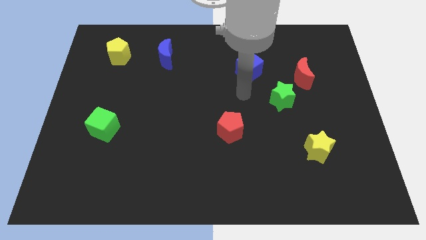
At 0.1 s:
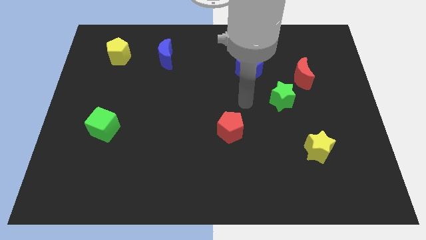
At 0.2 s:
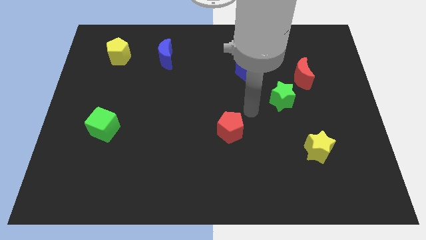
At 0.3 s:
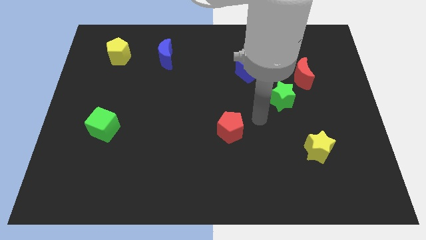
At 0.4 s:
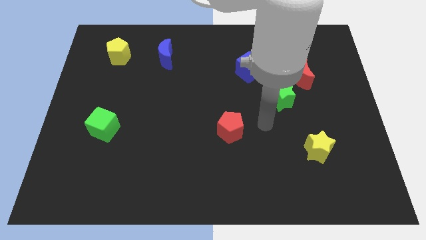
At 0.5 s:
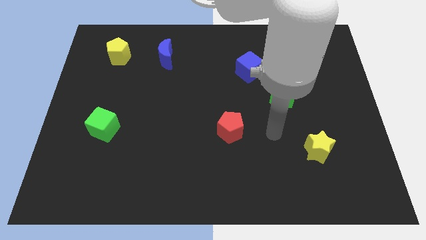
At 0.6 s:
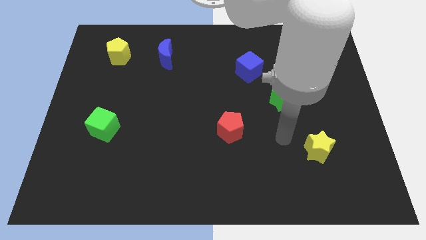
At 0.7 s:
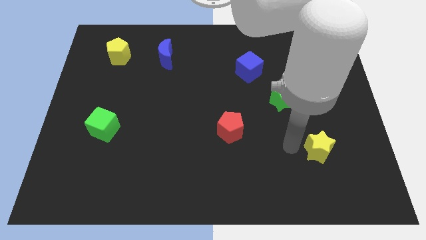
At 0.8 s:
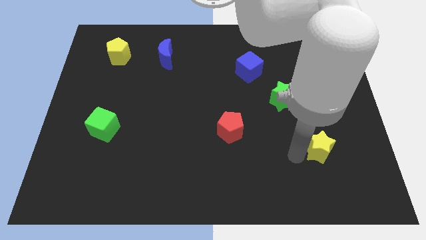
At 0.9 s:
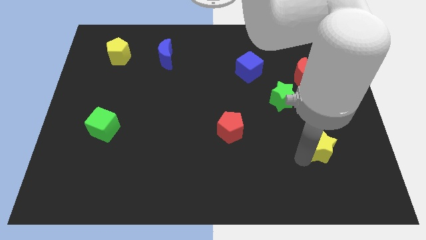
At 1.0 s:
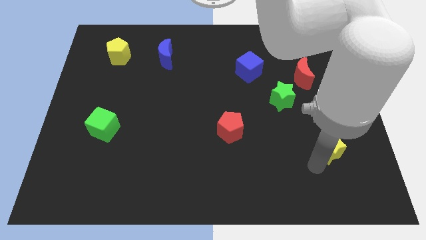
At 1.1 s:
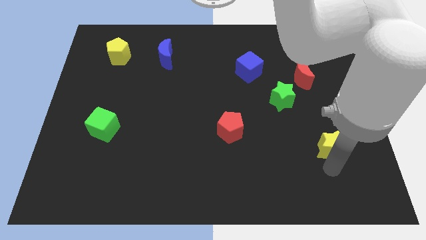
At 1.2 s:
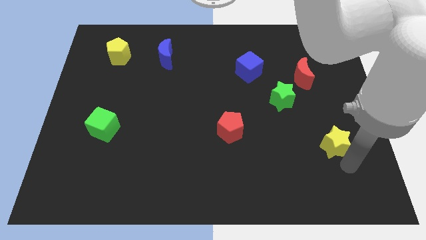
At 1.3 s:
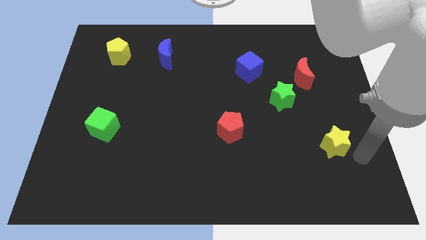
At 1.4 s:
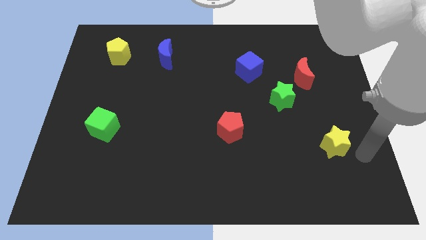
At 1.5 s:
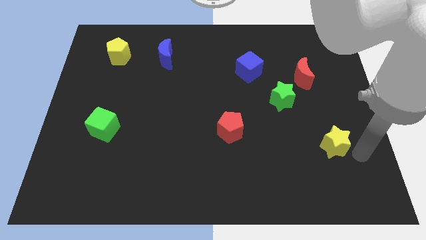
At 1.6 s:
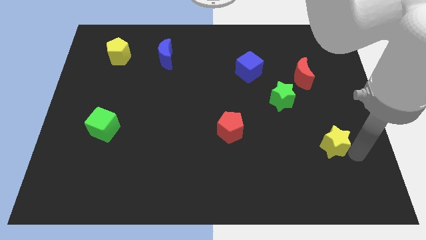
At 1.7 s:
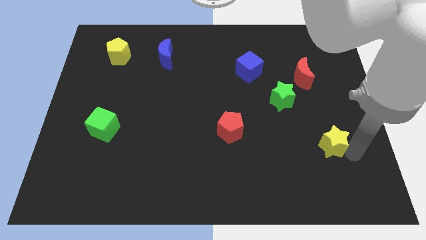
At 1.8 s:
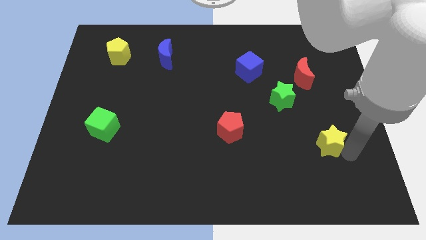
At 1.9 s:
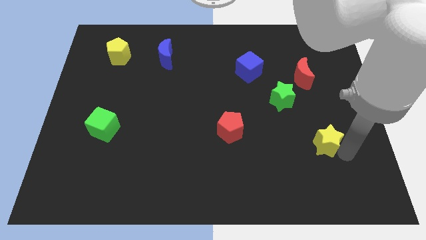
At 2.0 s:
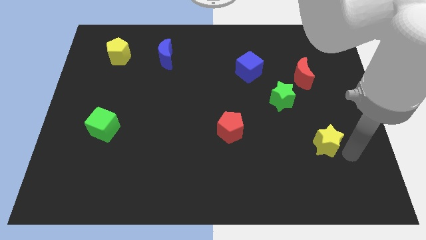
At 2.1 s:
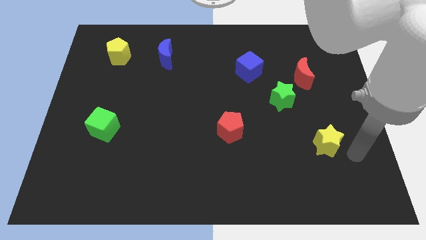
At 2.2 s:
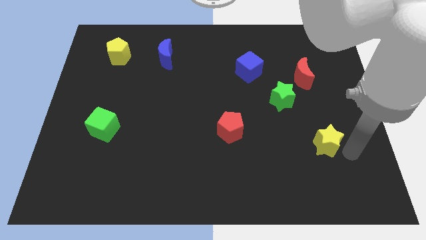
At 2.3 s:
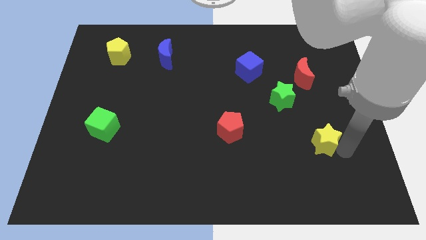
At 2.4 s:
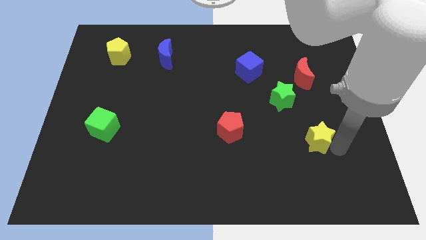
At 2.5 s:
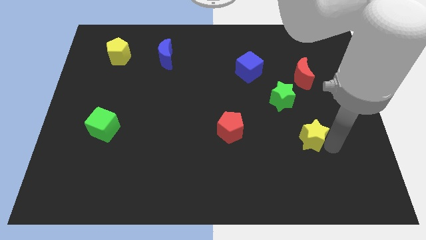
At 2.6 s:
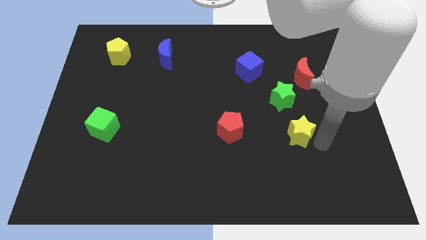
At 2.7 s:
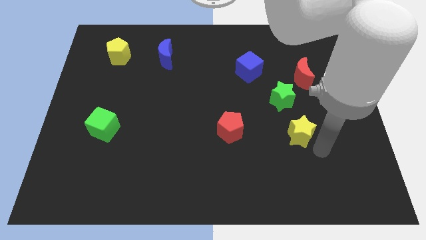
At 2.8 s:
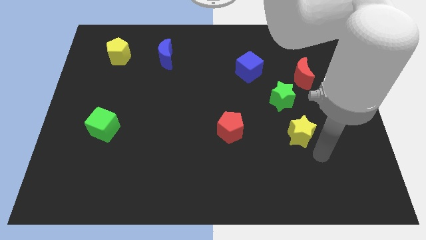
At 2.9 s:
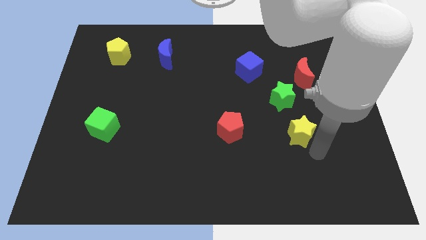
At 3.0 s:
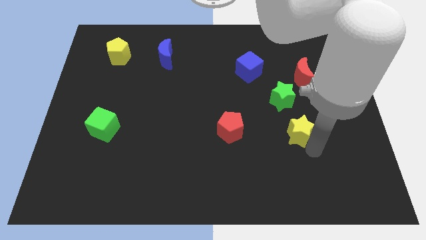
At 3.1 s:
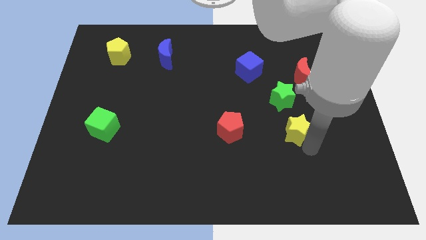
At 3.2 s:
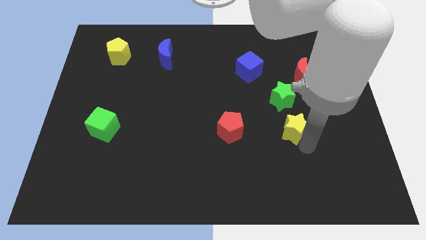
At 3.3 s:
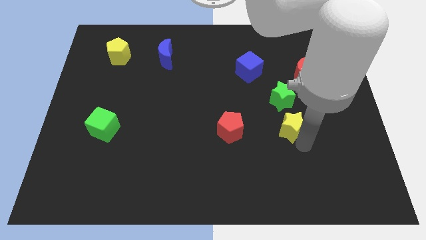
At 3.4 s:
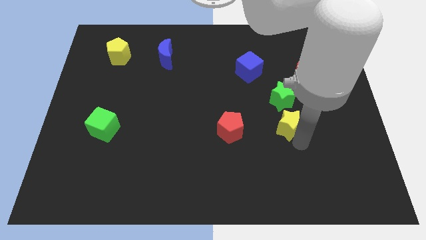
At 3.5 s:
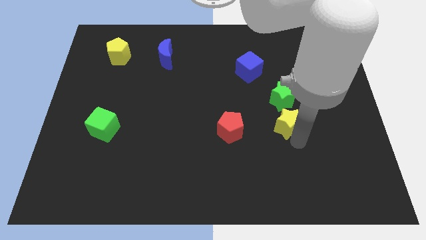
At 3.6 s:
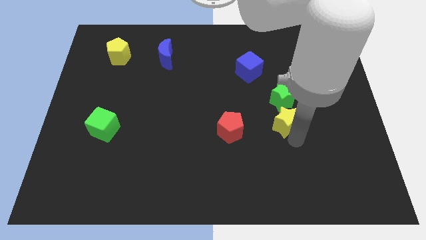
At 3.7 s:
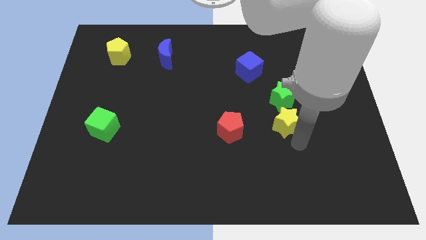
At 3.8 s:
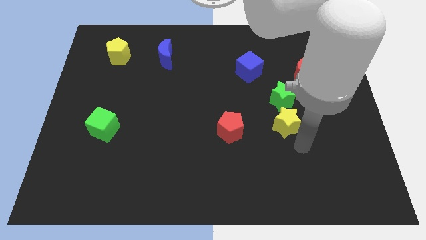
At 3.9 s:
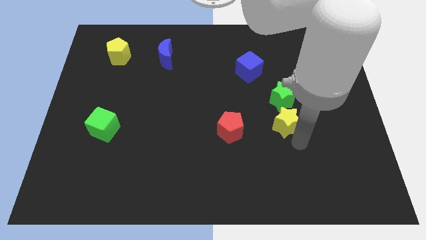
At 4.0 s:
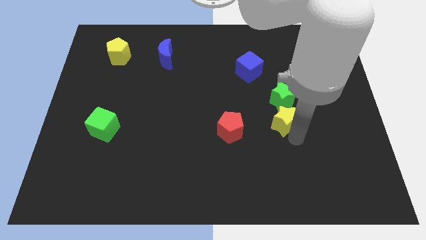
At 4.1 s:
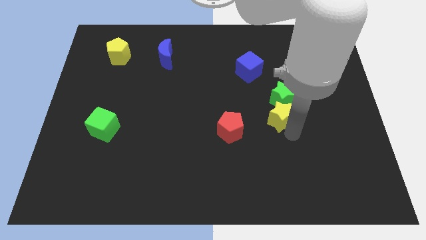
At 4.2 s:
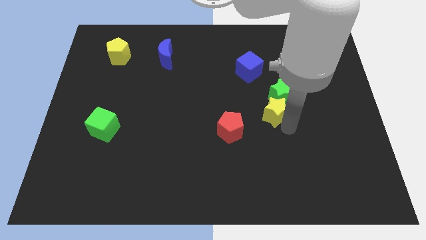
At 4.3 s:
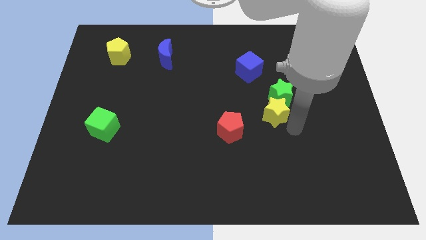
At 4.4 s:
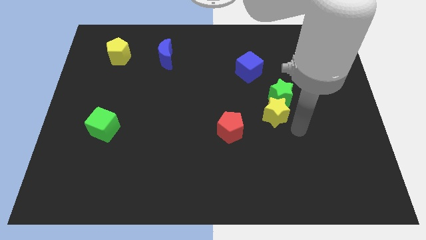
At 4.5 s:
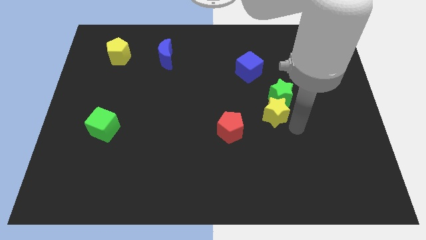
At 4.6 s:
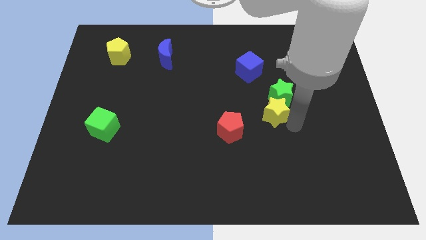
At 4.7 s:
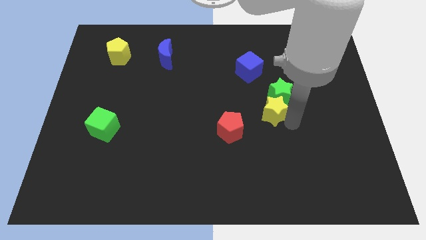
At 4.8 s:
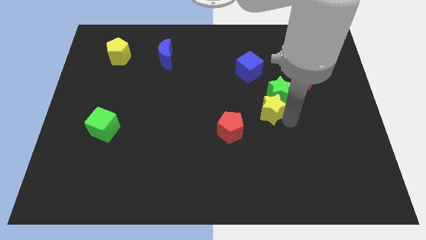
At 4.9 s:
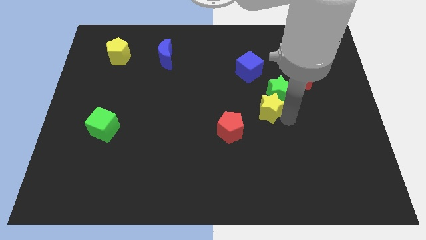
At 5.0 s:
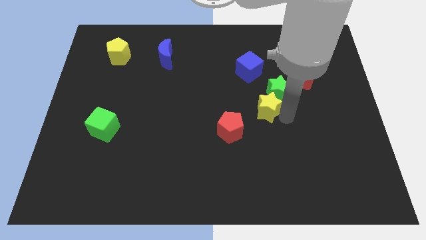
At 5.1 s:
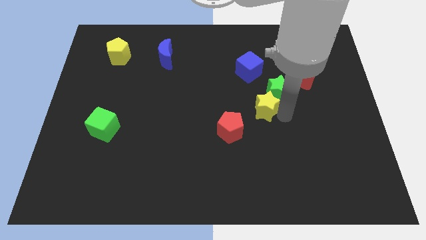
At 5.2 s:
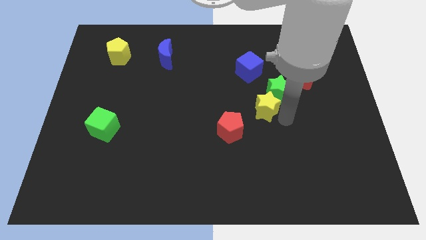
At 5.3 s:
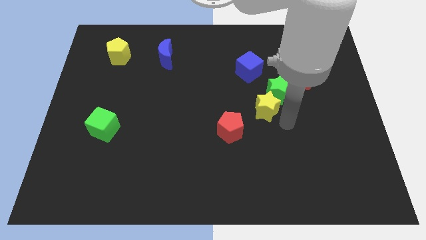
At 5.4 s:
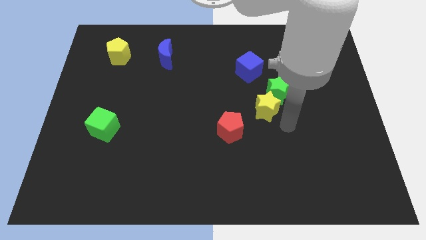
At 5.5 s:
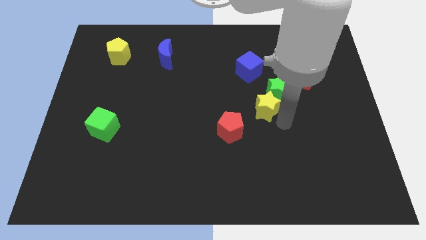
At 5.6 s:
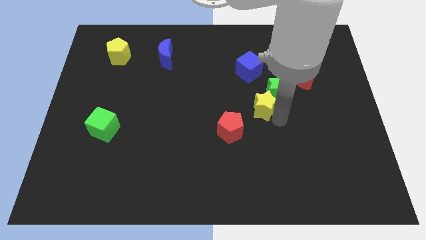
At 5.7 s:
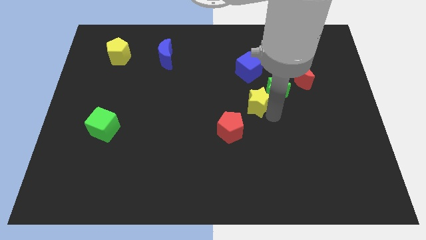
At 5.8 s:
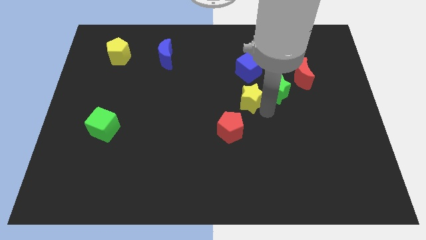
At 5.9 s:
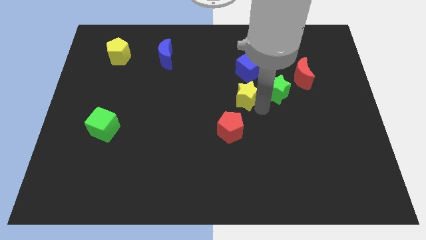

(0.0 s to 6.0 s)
slide the yellow star up and to the left

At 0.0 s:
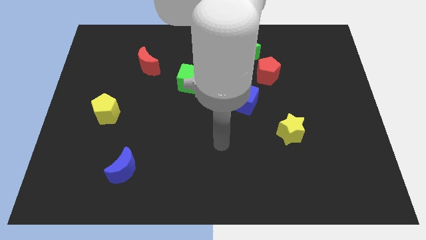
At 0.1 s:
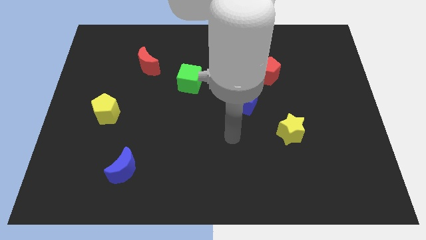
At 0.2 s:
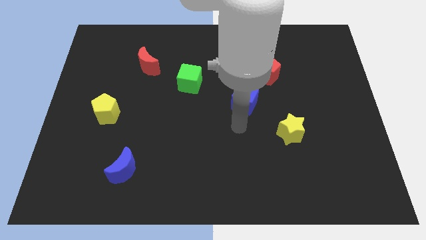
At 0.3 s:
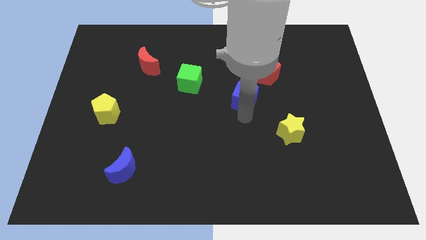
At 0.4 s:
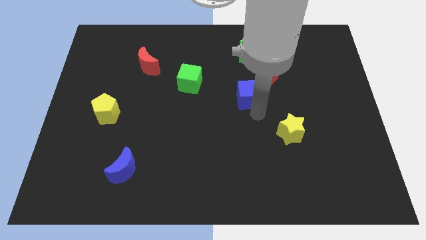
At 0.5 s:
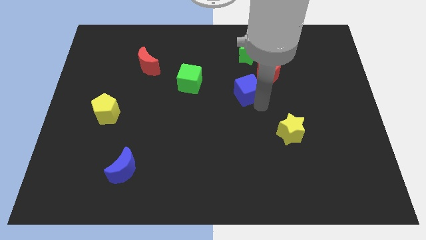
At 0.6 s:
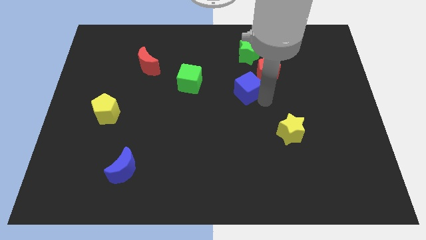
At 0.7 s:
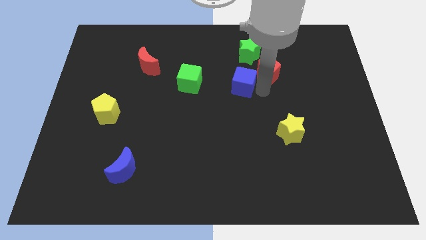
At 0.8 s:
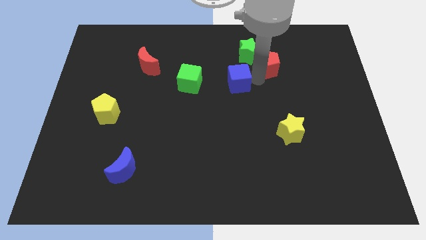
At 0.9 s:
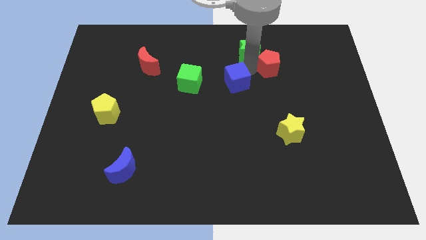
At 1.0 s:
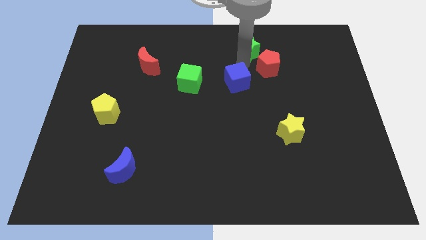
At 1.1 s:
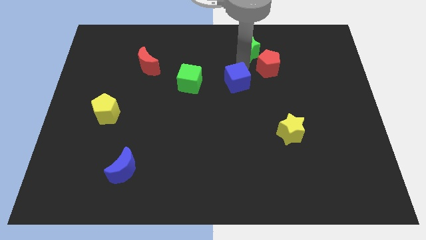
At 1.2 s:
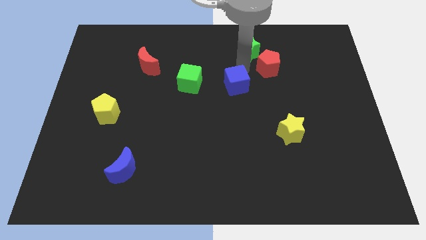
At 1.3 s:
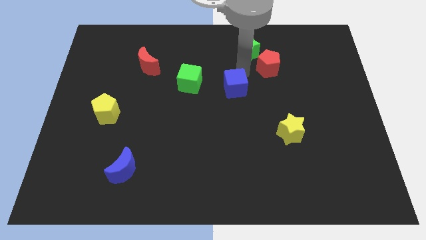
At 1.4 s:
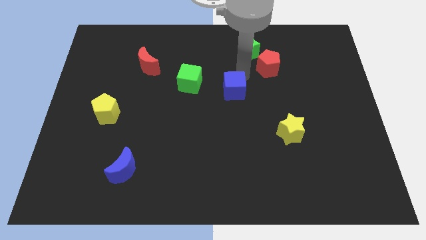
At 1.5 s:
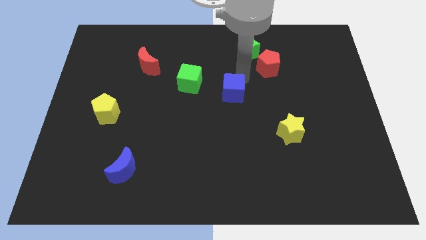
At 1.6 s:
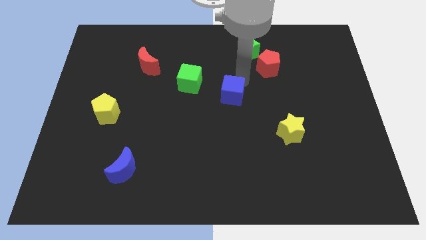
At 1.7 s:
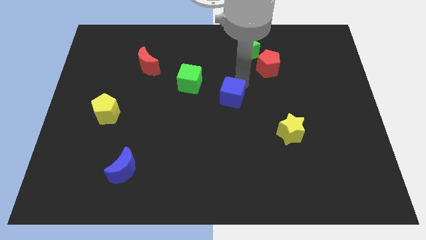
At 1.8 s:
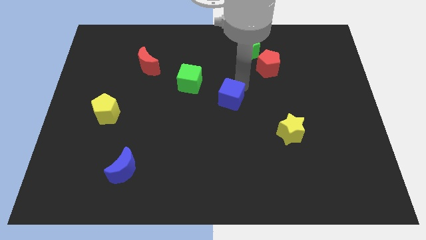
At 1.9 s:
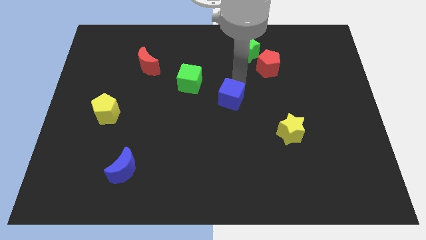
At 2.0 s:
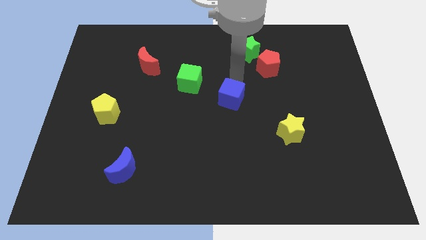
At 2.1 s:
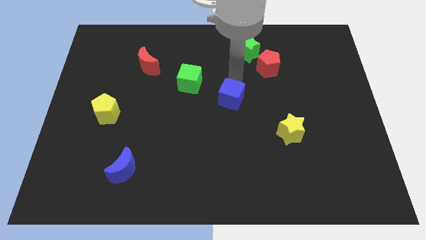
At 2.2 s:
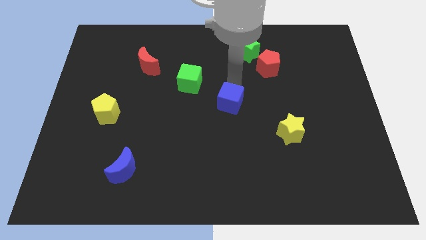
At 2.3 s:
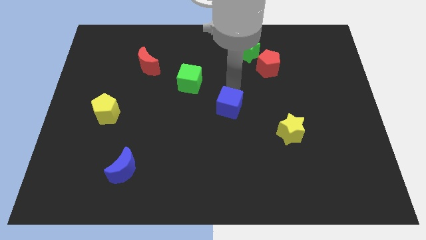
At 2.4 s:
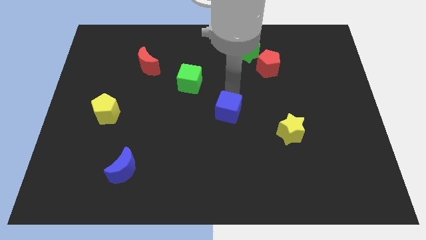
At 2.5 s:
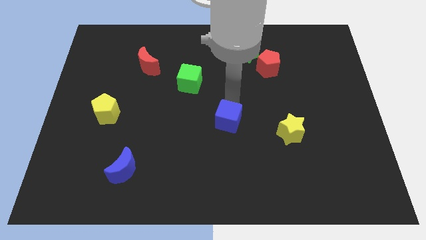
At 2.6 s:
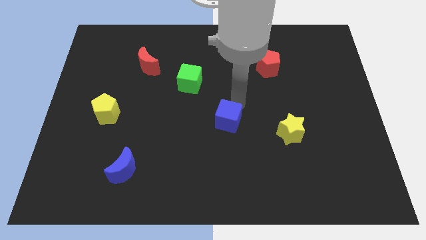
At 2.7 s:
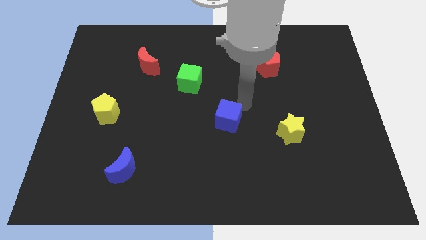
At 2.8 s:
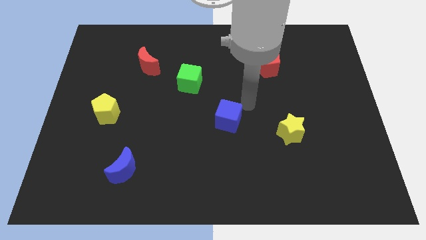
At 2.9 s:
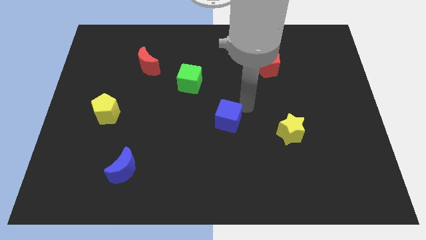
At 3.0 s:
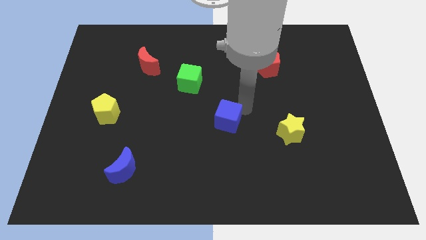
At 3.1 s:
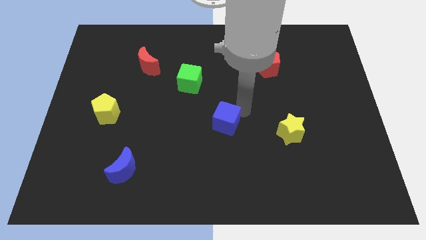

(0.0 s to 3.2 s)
slightly push the blue cube diagonally down and left
